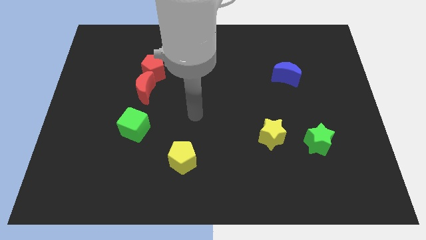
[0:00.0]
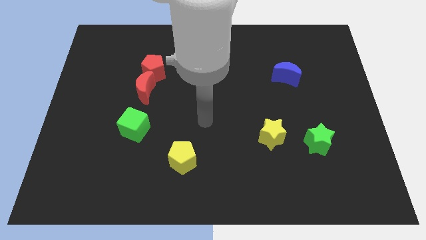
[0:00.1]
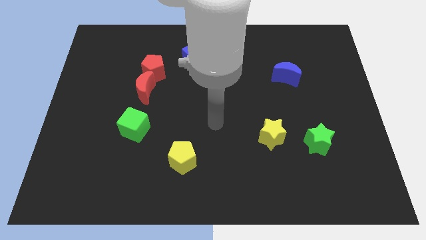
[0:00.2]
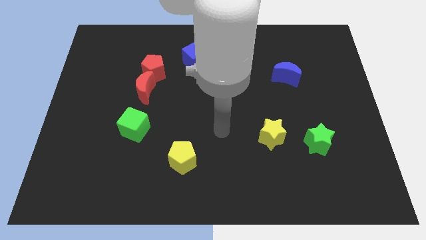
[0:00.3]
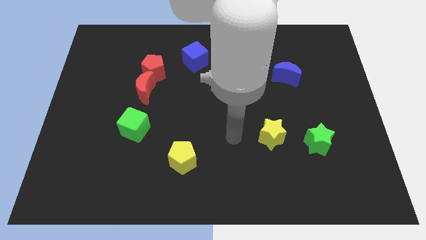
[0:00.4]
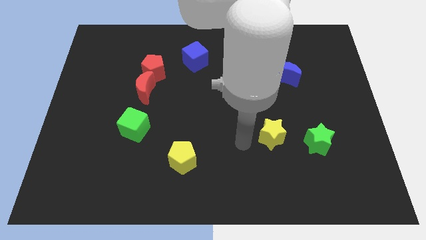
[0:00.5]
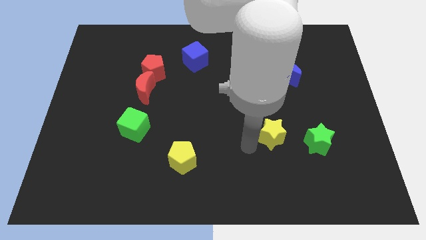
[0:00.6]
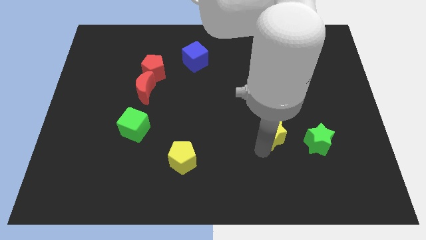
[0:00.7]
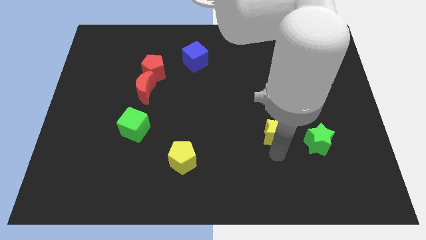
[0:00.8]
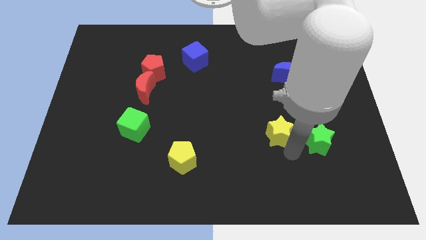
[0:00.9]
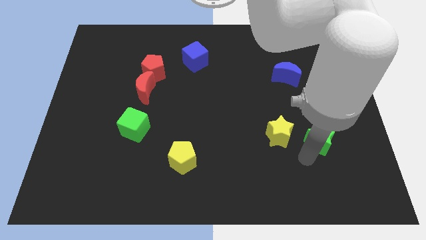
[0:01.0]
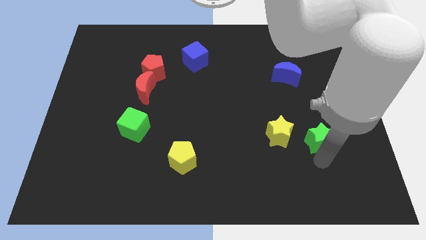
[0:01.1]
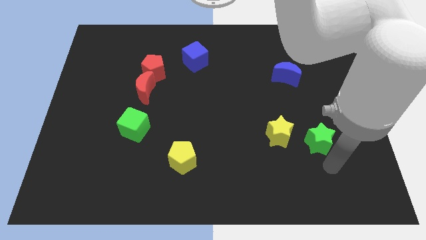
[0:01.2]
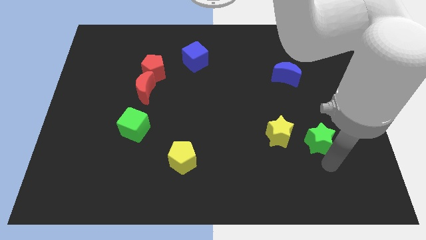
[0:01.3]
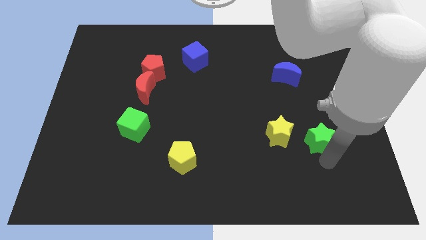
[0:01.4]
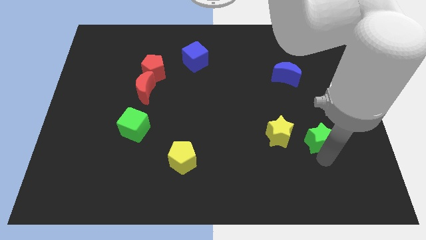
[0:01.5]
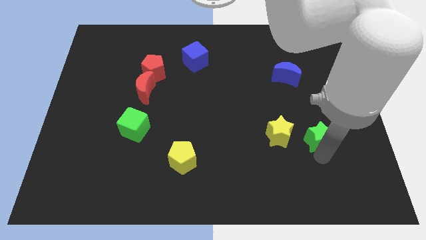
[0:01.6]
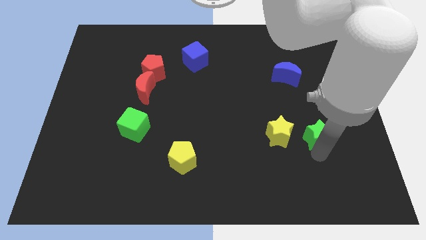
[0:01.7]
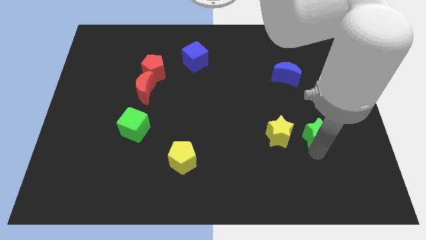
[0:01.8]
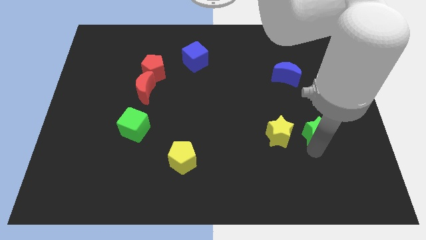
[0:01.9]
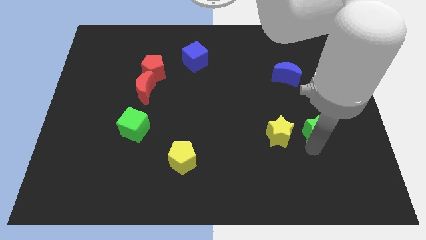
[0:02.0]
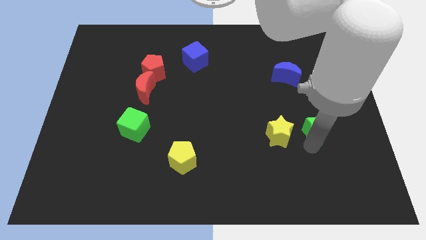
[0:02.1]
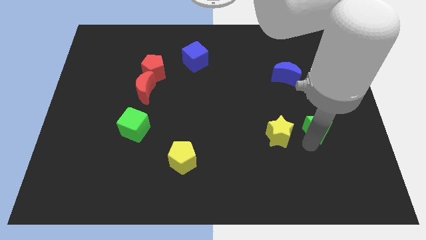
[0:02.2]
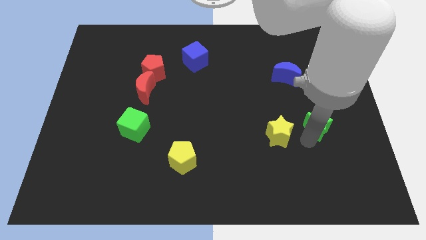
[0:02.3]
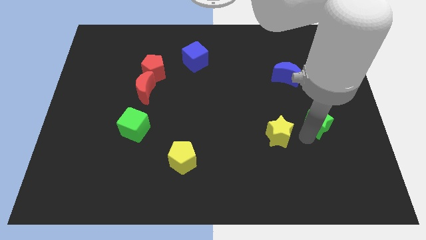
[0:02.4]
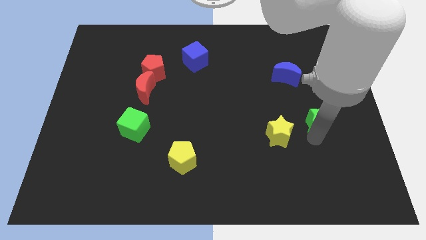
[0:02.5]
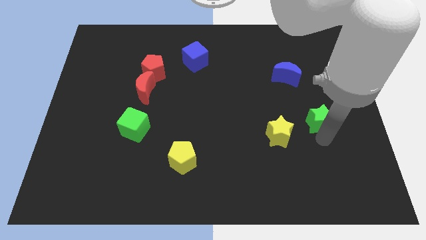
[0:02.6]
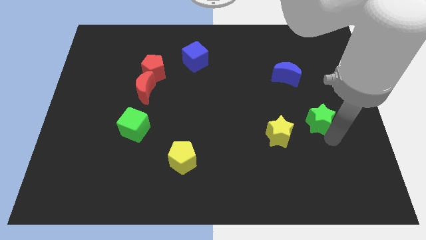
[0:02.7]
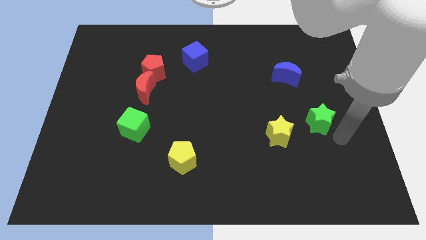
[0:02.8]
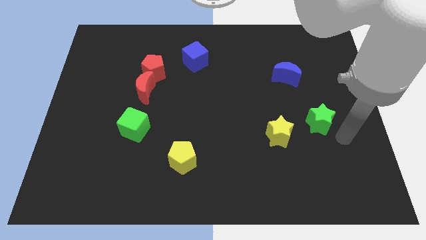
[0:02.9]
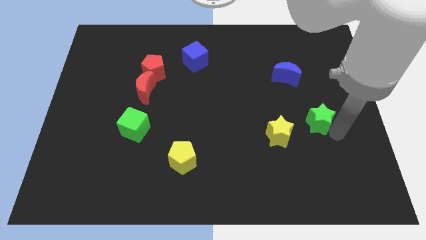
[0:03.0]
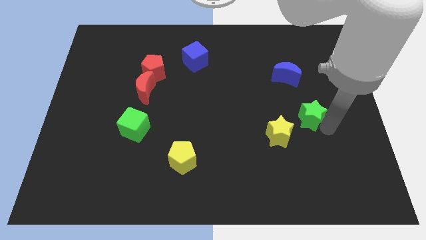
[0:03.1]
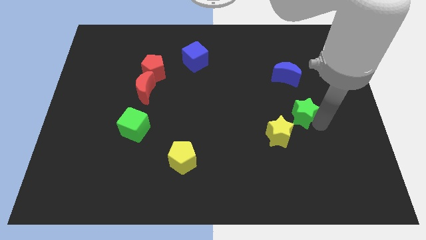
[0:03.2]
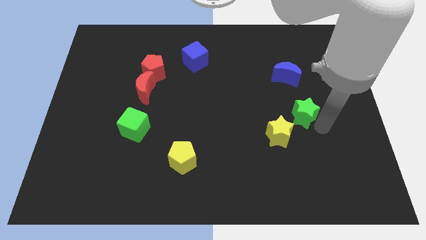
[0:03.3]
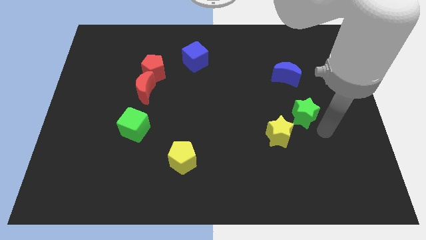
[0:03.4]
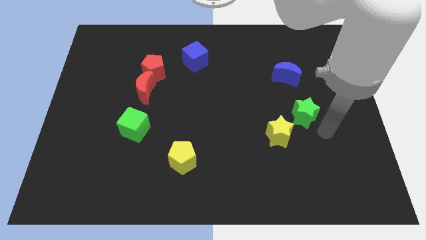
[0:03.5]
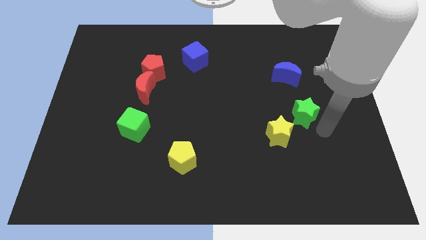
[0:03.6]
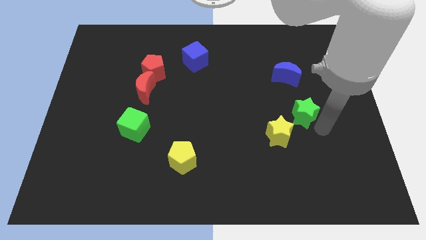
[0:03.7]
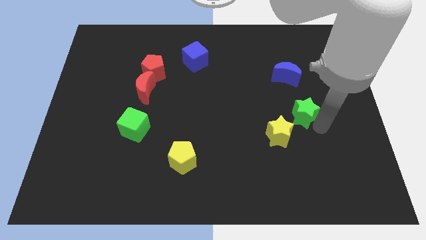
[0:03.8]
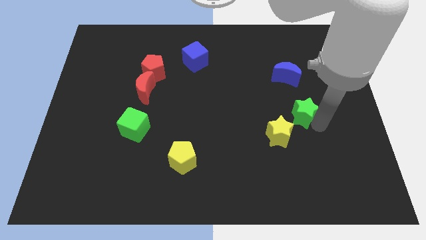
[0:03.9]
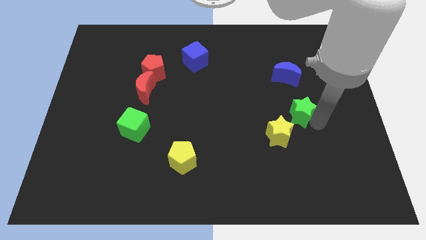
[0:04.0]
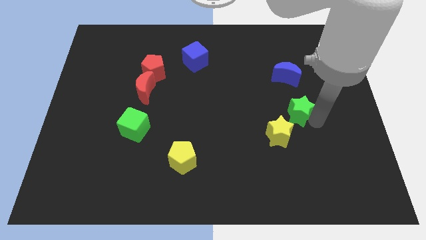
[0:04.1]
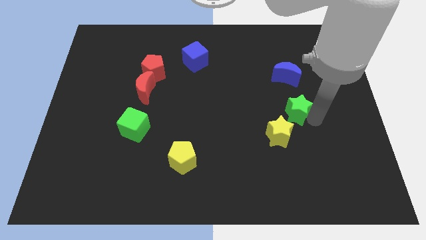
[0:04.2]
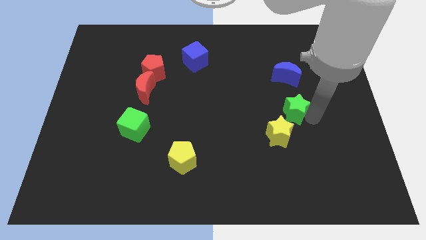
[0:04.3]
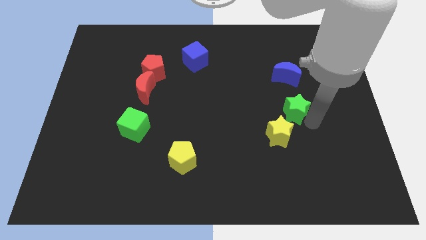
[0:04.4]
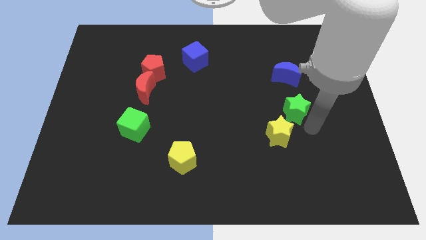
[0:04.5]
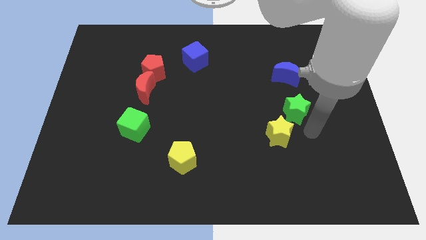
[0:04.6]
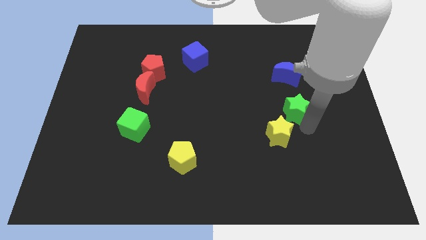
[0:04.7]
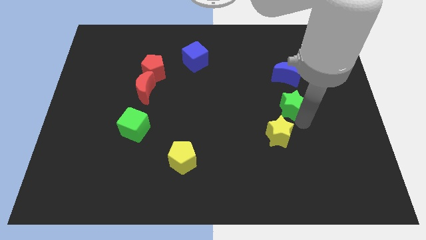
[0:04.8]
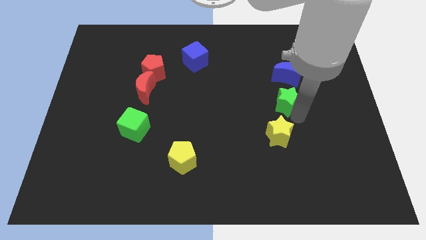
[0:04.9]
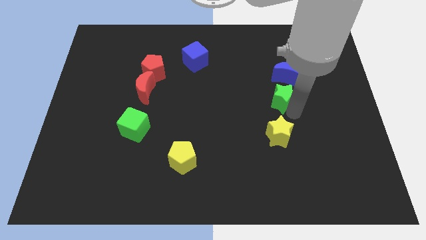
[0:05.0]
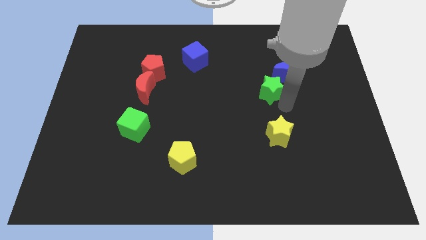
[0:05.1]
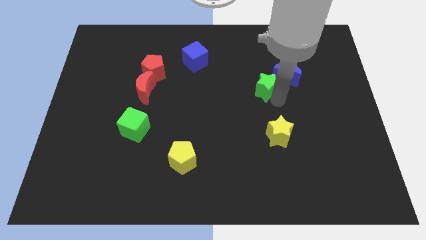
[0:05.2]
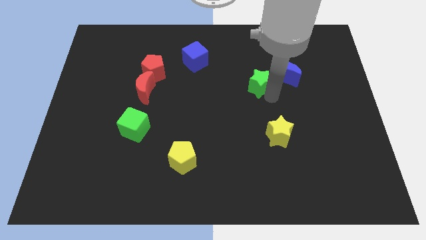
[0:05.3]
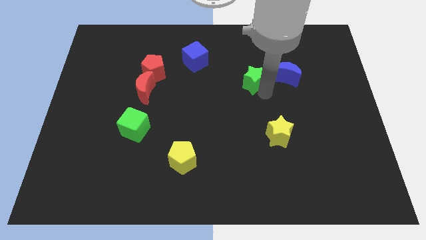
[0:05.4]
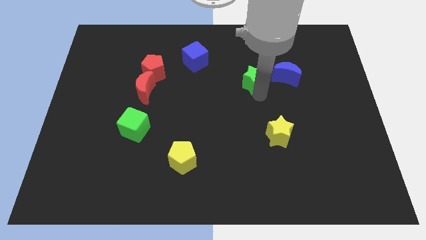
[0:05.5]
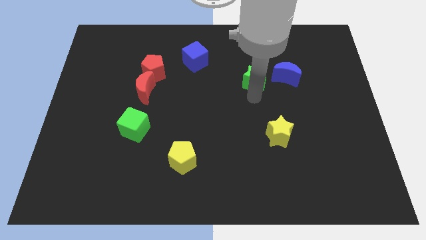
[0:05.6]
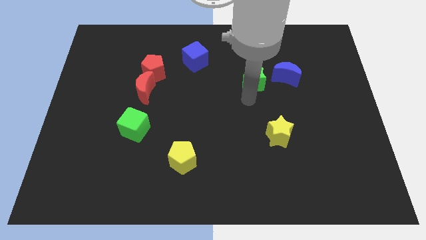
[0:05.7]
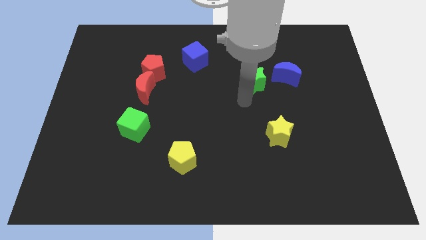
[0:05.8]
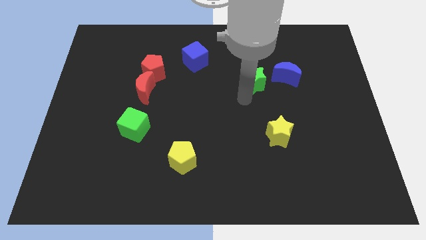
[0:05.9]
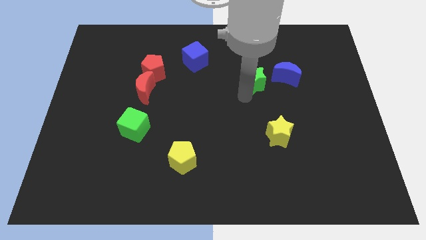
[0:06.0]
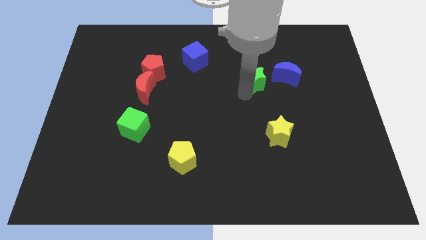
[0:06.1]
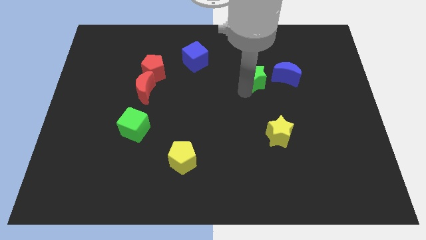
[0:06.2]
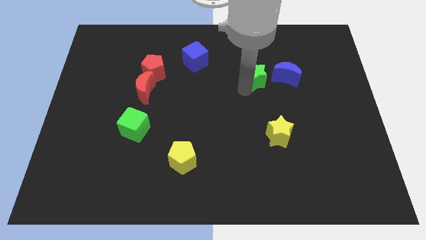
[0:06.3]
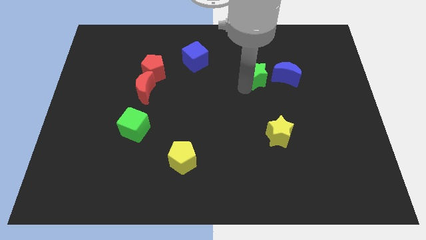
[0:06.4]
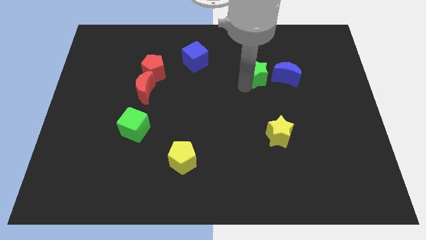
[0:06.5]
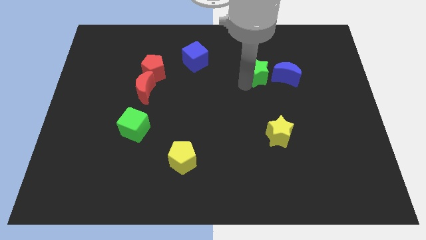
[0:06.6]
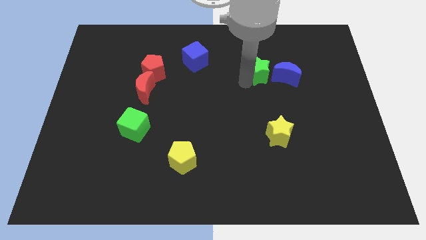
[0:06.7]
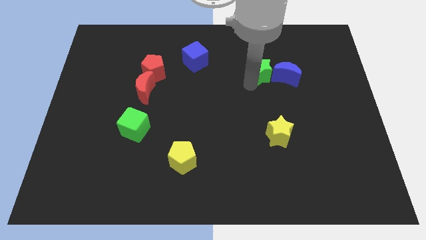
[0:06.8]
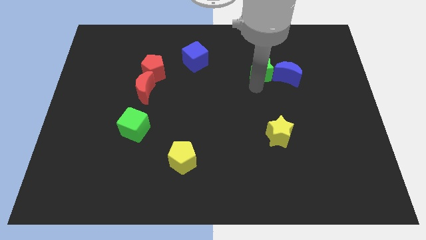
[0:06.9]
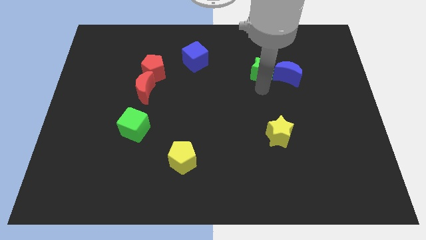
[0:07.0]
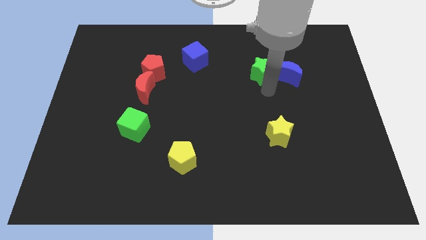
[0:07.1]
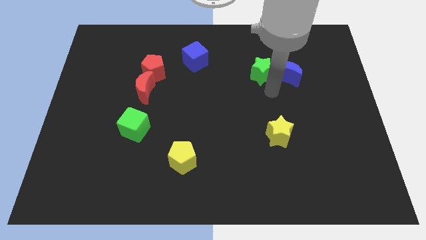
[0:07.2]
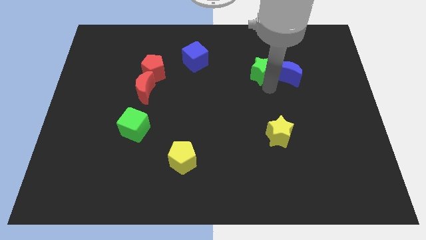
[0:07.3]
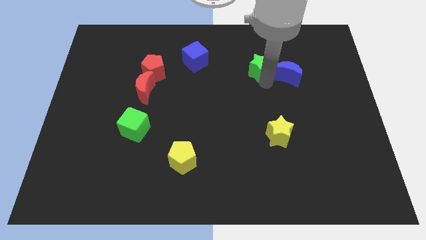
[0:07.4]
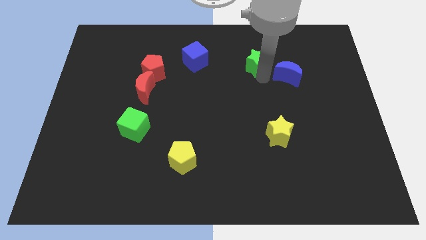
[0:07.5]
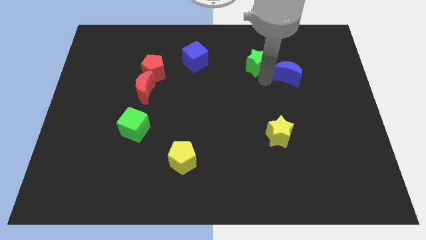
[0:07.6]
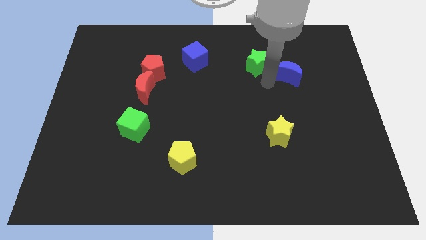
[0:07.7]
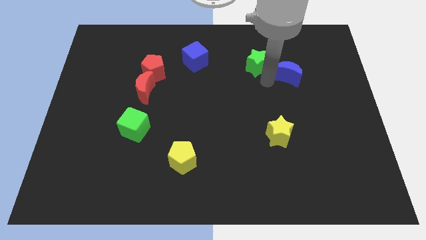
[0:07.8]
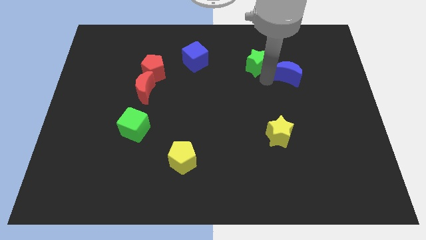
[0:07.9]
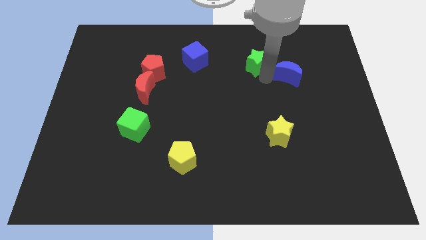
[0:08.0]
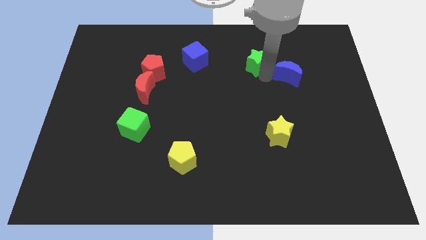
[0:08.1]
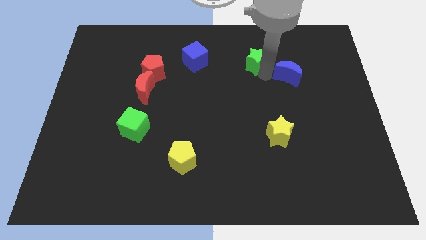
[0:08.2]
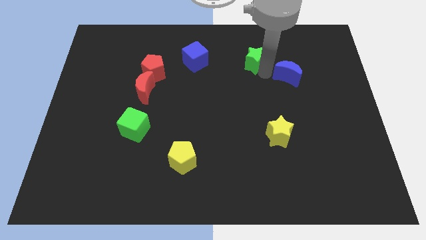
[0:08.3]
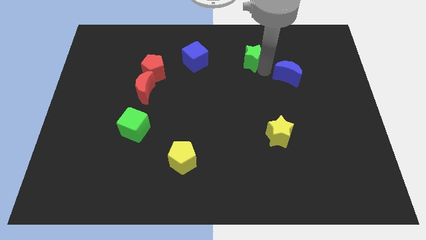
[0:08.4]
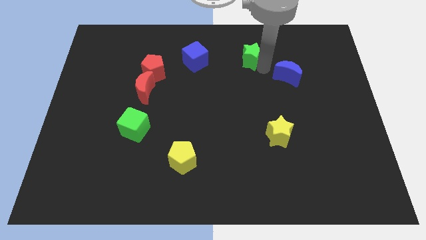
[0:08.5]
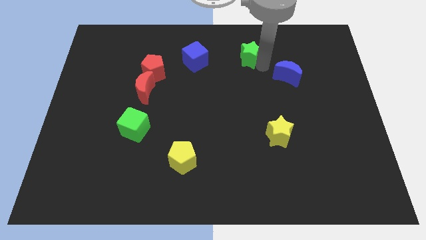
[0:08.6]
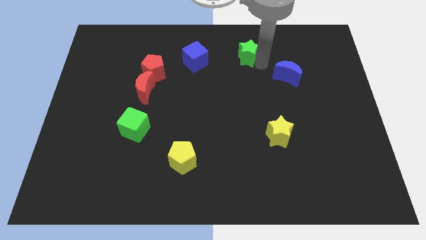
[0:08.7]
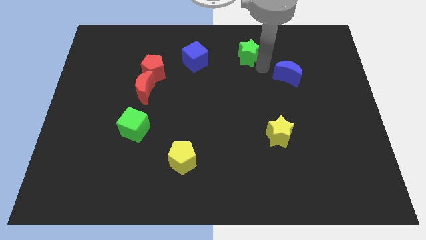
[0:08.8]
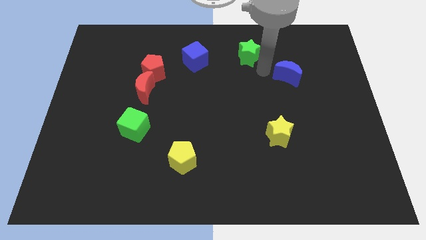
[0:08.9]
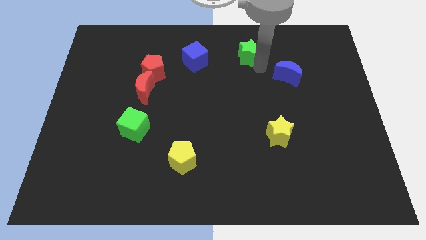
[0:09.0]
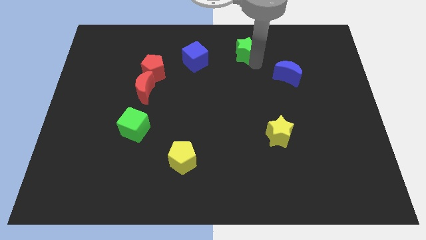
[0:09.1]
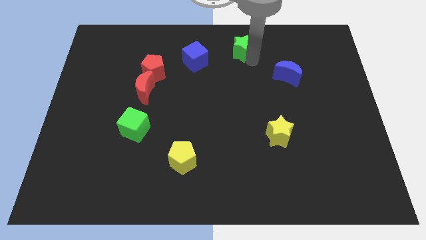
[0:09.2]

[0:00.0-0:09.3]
slide the green star to the top
